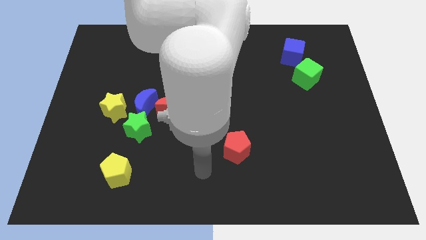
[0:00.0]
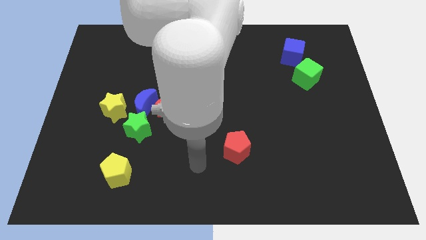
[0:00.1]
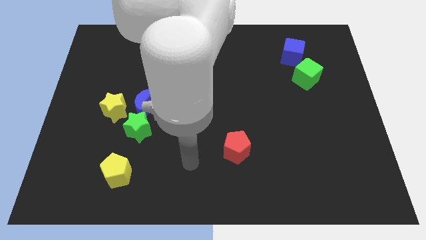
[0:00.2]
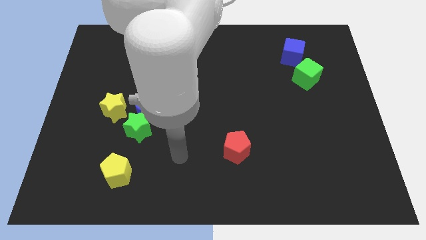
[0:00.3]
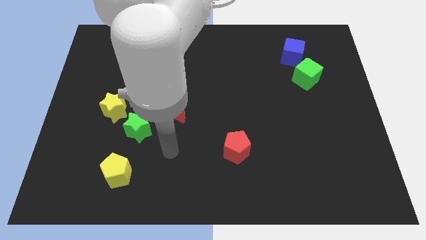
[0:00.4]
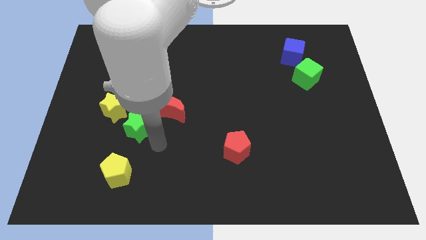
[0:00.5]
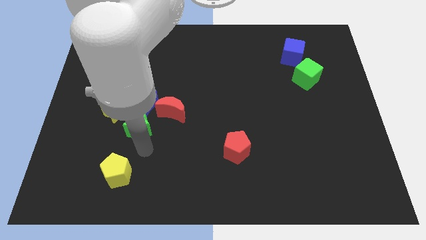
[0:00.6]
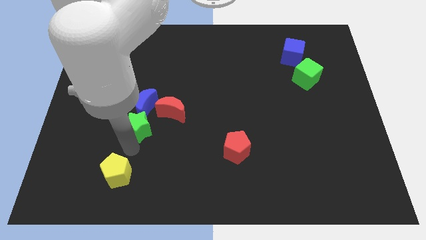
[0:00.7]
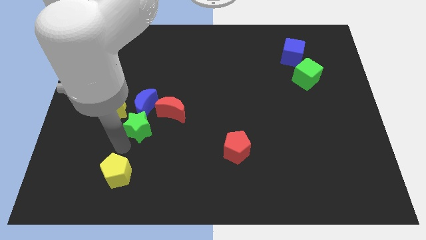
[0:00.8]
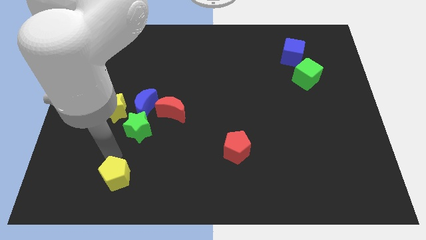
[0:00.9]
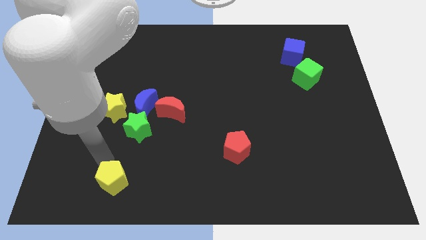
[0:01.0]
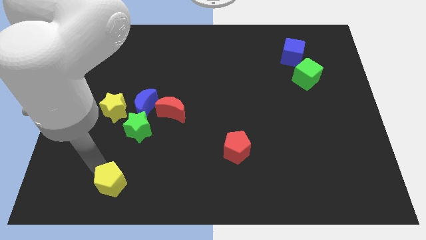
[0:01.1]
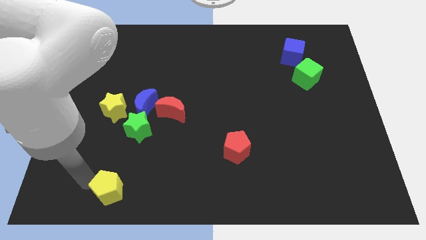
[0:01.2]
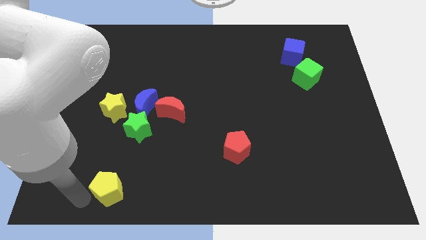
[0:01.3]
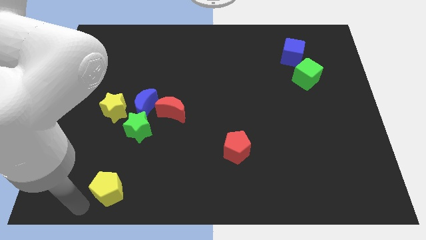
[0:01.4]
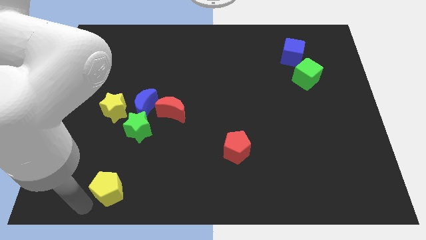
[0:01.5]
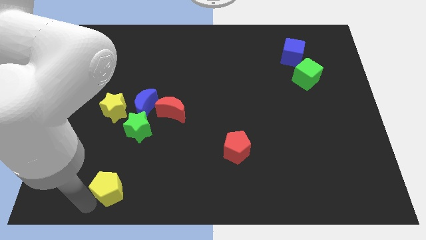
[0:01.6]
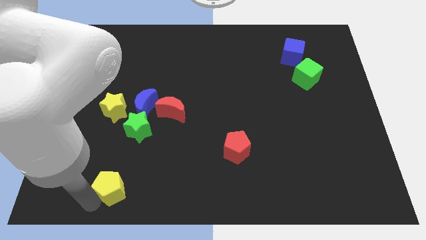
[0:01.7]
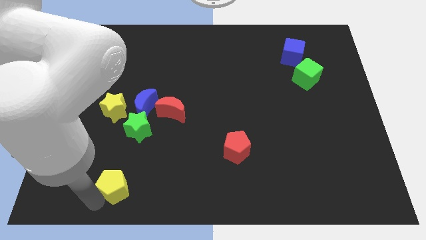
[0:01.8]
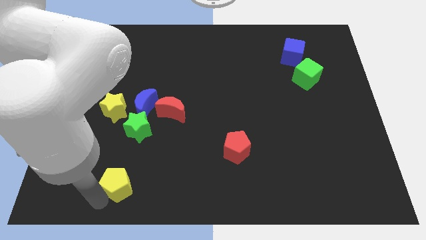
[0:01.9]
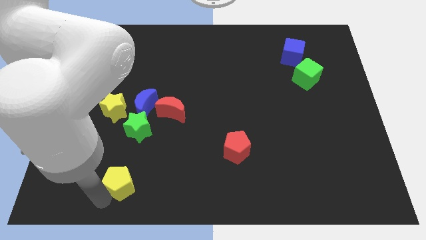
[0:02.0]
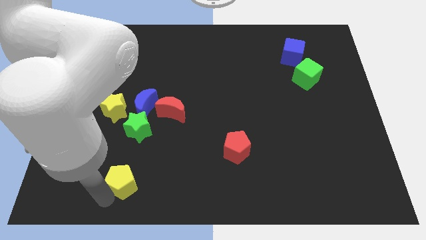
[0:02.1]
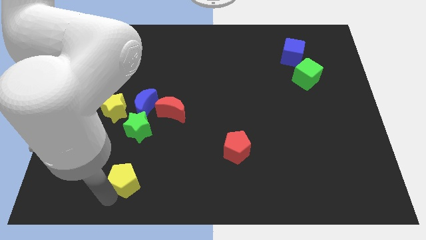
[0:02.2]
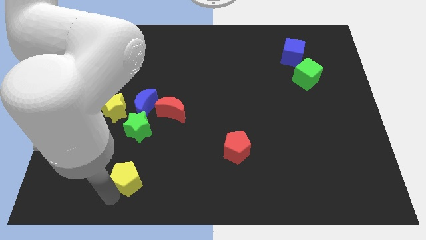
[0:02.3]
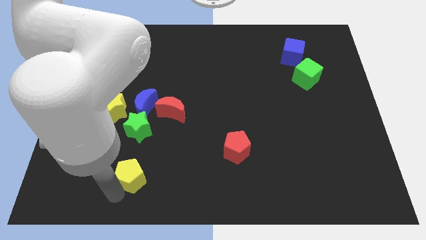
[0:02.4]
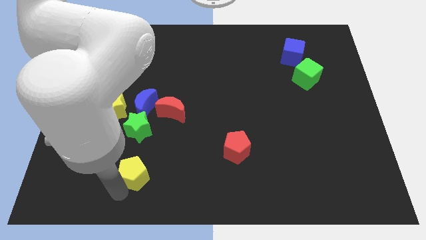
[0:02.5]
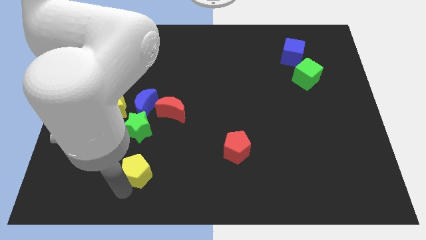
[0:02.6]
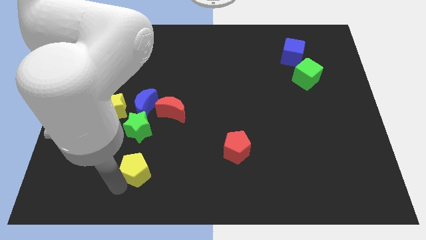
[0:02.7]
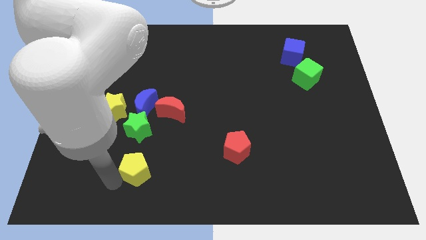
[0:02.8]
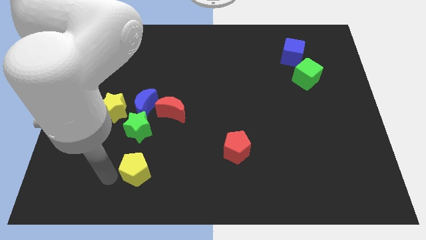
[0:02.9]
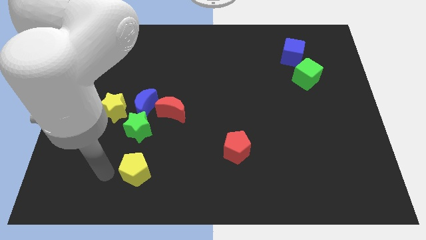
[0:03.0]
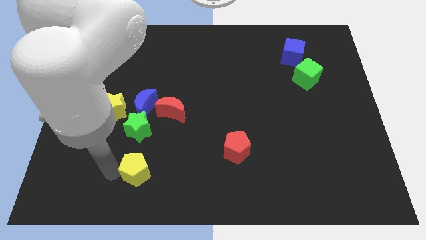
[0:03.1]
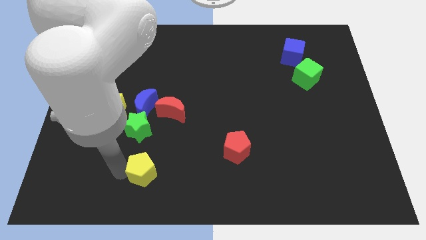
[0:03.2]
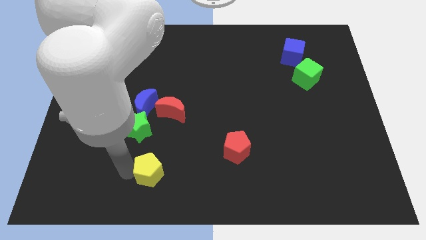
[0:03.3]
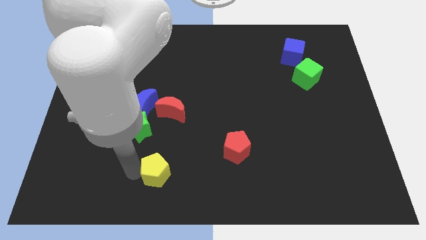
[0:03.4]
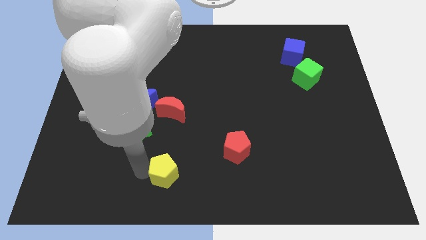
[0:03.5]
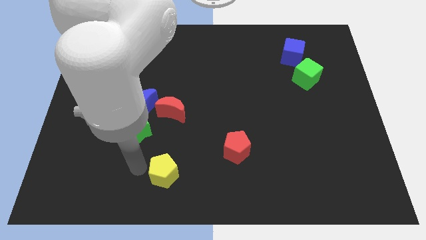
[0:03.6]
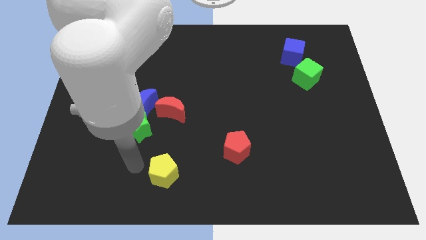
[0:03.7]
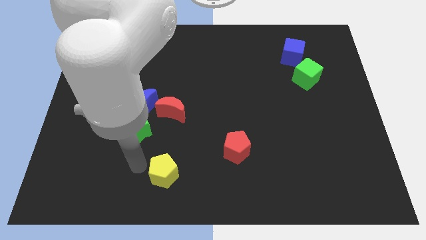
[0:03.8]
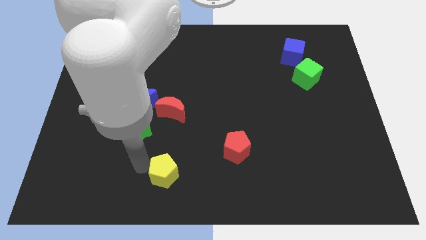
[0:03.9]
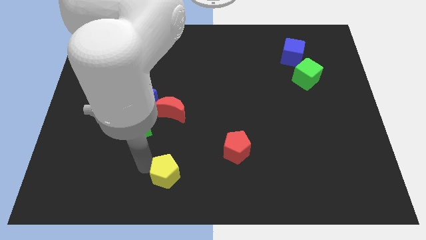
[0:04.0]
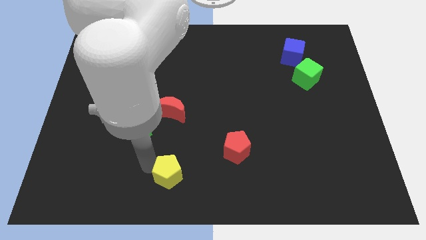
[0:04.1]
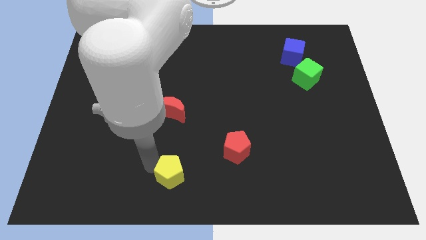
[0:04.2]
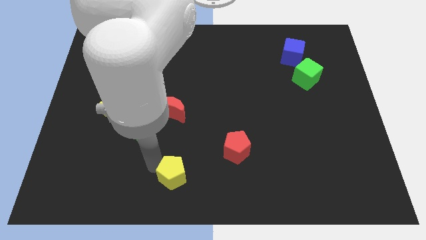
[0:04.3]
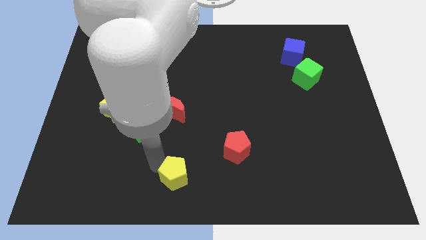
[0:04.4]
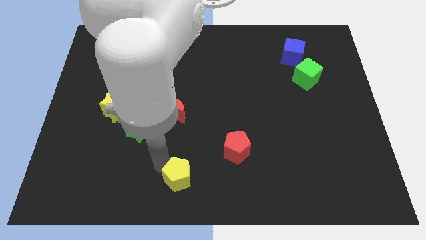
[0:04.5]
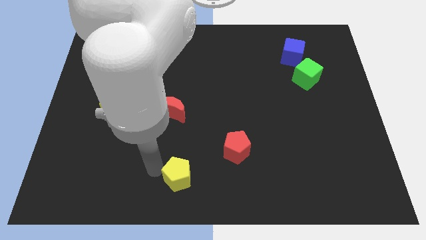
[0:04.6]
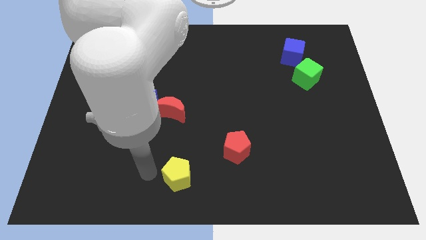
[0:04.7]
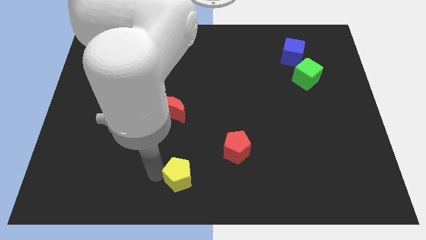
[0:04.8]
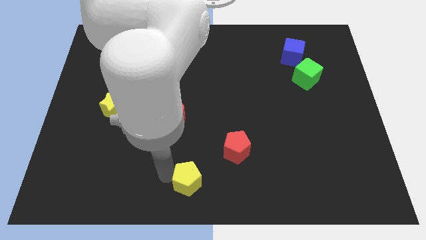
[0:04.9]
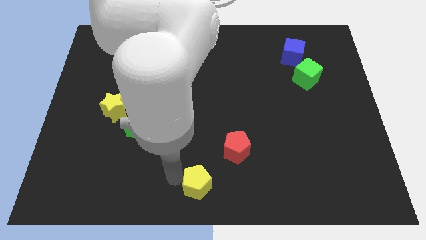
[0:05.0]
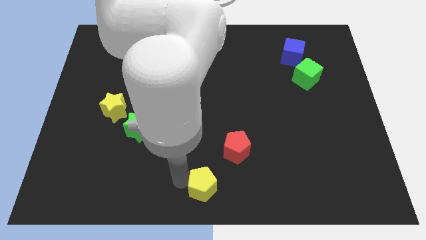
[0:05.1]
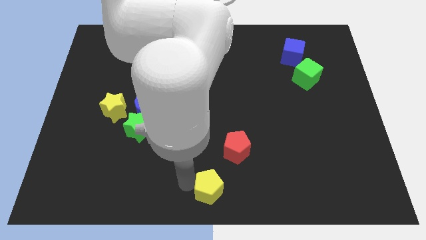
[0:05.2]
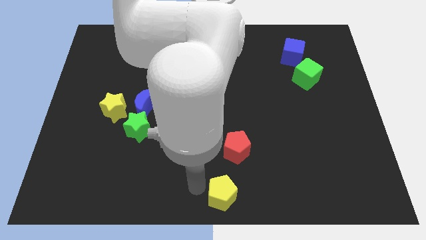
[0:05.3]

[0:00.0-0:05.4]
move the yellow pentagon right

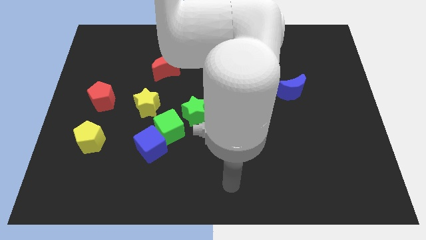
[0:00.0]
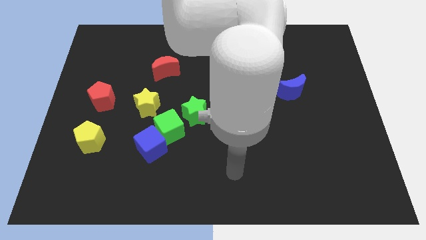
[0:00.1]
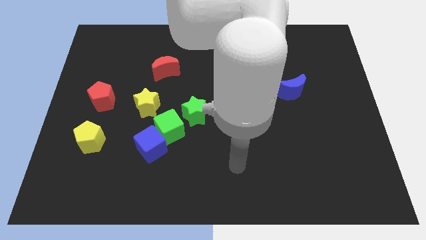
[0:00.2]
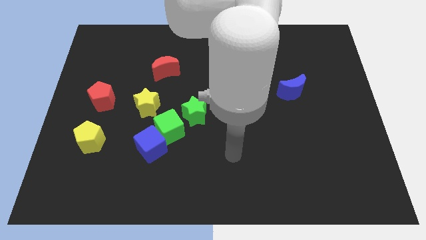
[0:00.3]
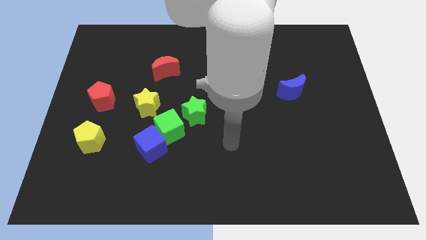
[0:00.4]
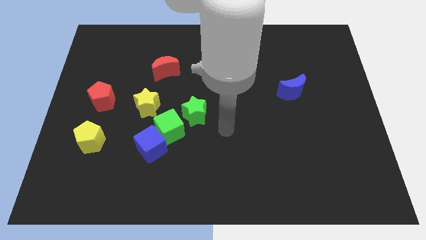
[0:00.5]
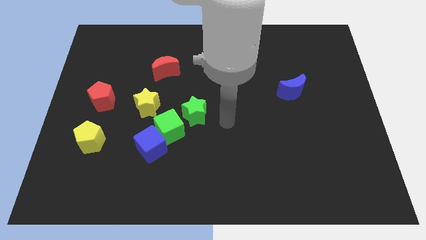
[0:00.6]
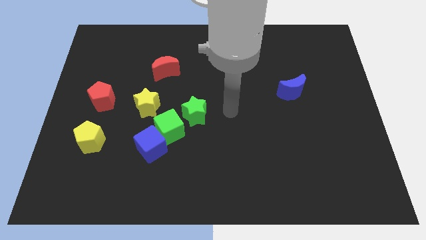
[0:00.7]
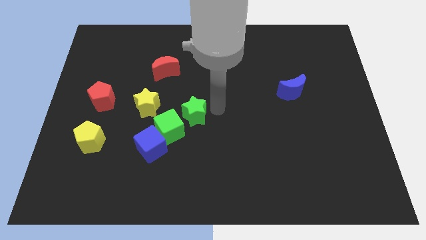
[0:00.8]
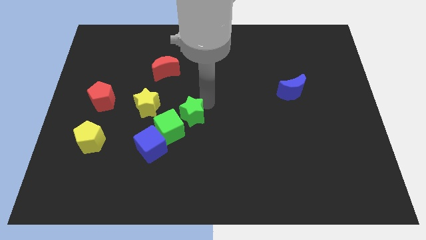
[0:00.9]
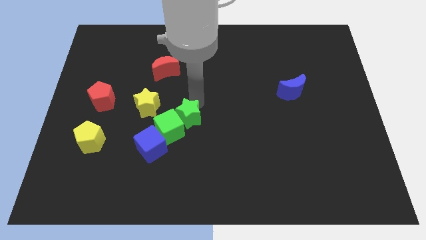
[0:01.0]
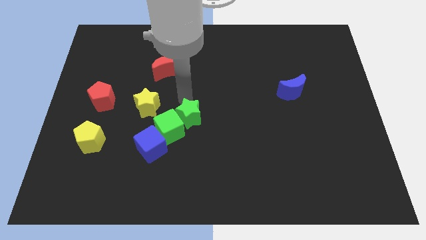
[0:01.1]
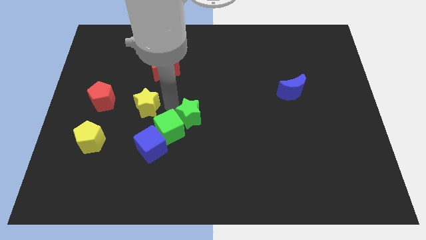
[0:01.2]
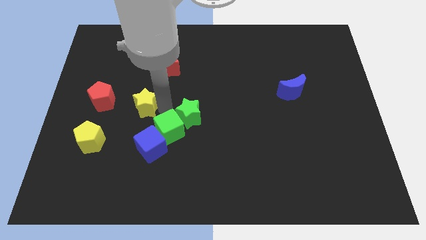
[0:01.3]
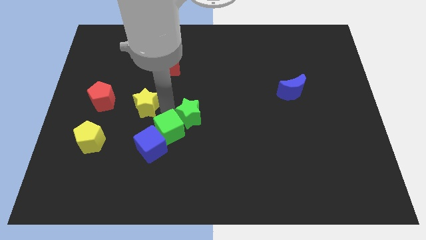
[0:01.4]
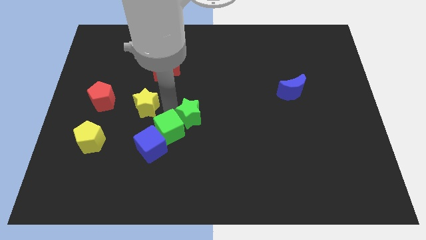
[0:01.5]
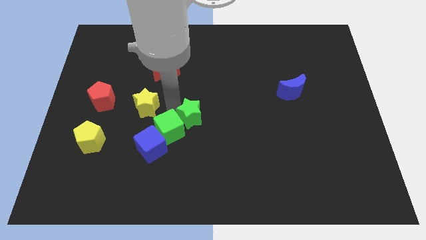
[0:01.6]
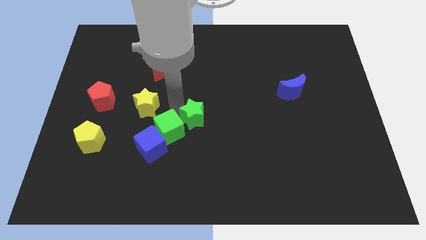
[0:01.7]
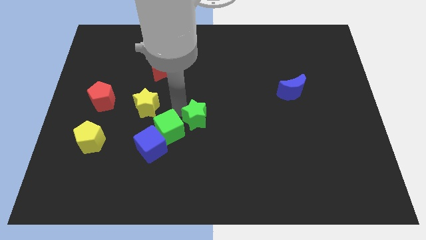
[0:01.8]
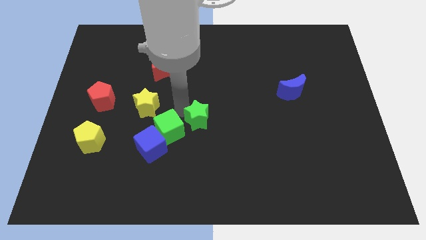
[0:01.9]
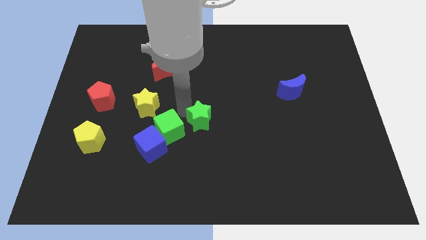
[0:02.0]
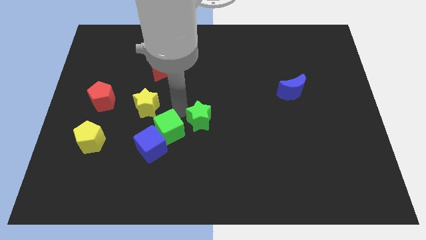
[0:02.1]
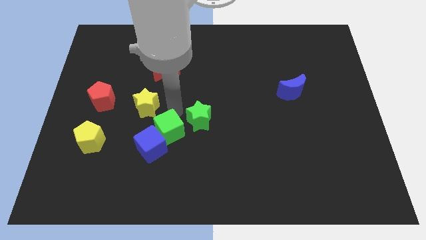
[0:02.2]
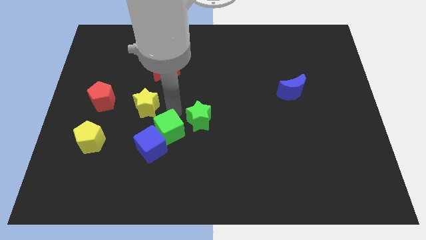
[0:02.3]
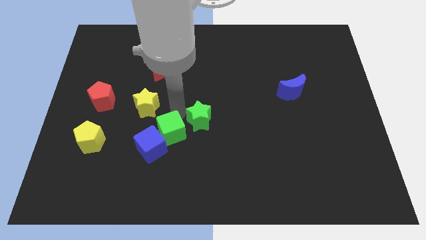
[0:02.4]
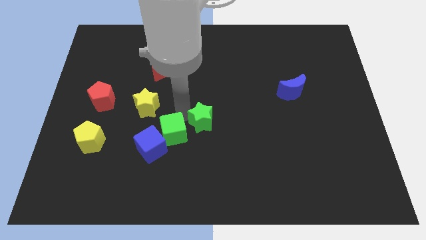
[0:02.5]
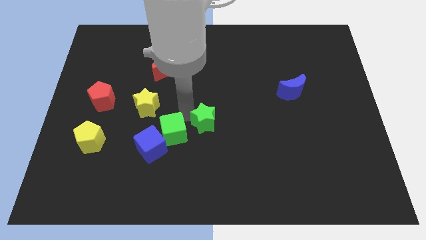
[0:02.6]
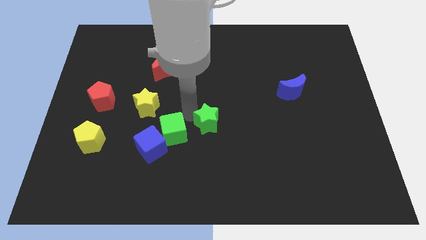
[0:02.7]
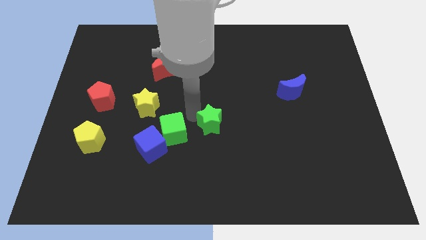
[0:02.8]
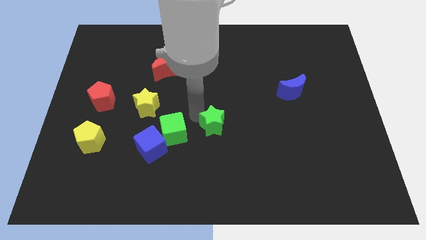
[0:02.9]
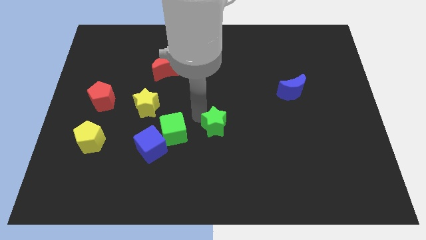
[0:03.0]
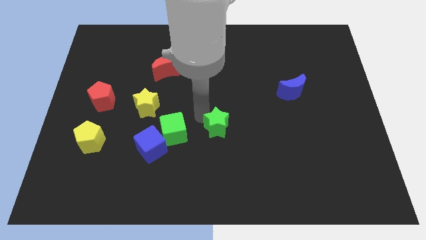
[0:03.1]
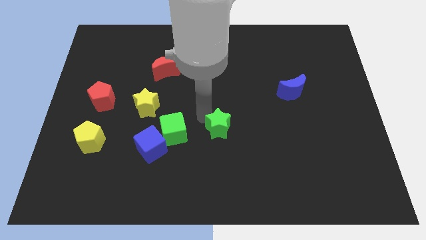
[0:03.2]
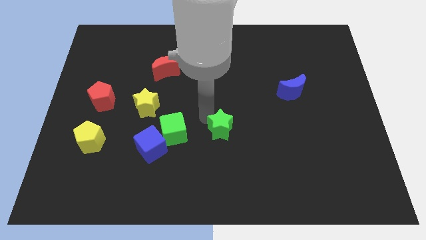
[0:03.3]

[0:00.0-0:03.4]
slide the green star somewhat diagonally down and to the right
